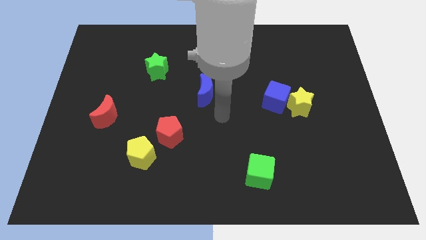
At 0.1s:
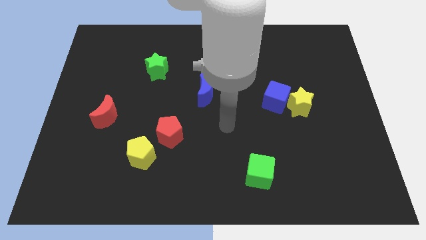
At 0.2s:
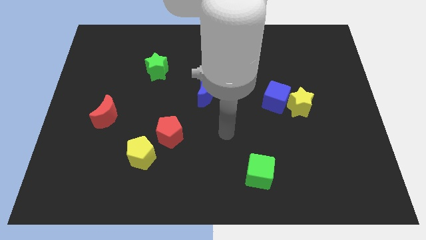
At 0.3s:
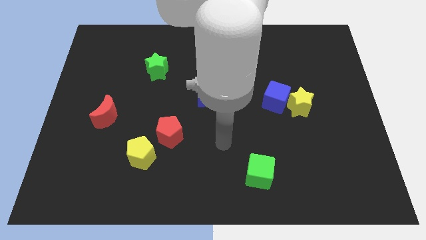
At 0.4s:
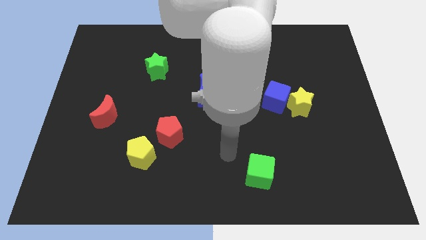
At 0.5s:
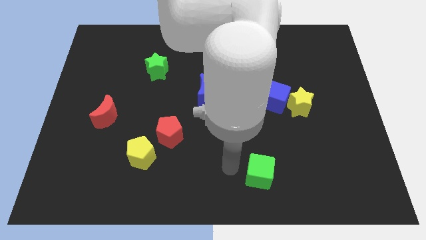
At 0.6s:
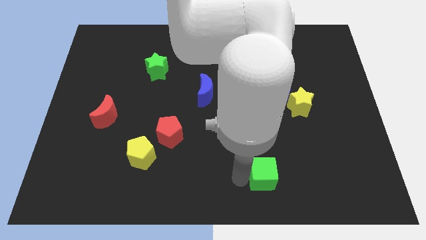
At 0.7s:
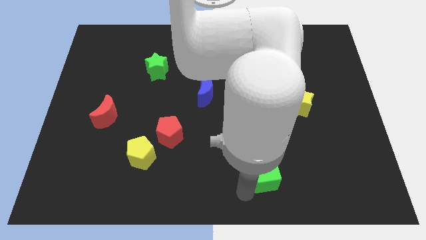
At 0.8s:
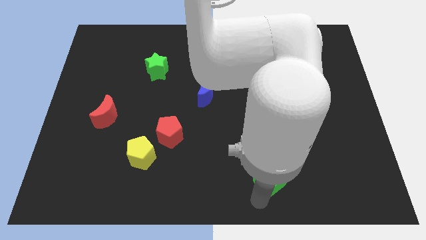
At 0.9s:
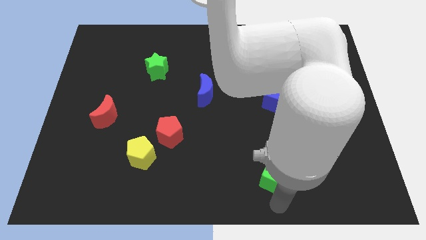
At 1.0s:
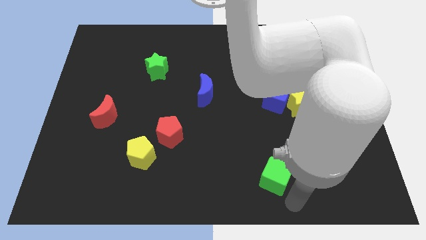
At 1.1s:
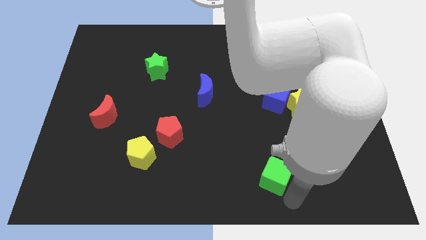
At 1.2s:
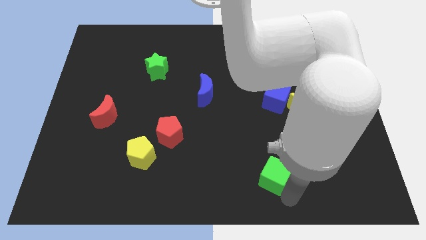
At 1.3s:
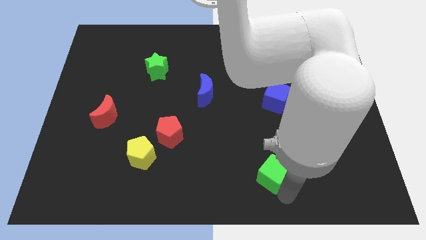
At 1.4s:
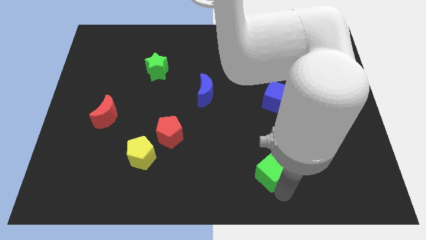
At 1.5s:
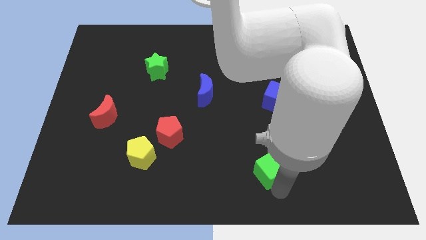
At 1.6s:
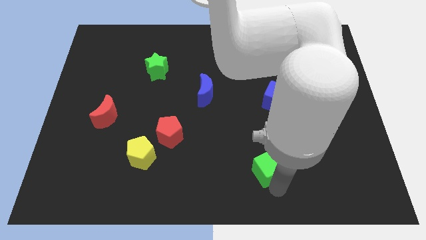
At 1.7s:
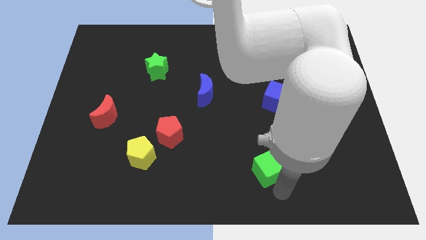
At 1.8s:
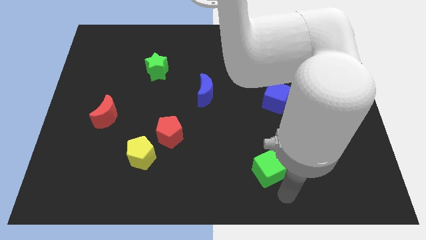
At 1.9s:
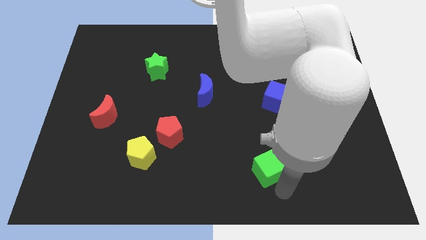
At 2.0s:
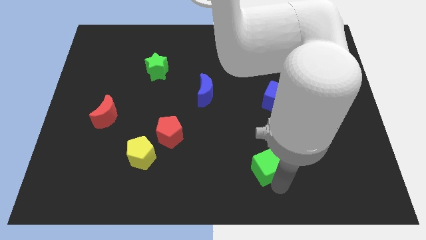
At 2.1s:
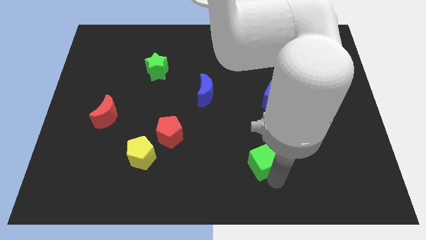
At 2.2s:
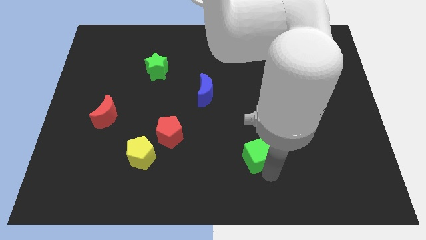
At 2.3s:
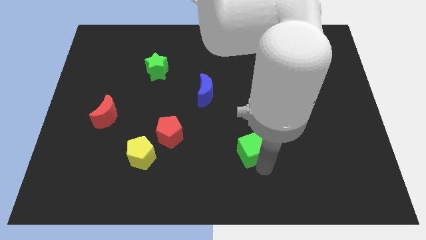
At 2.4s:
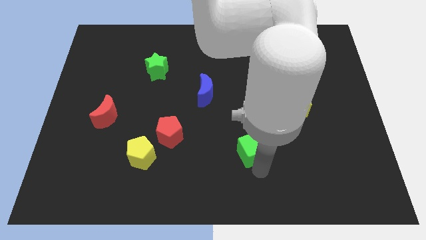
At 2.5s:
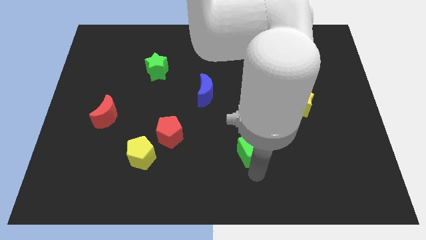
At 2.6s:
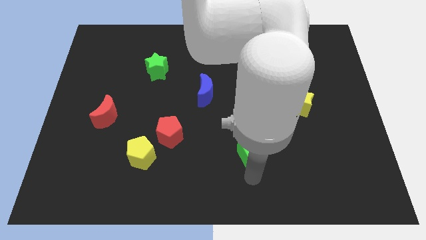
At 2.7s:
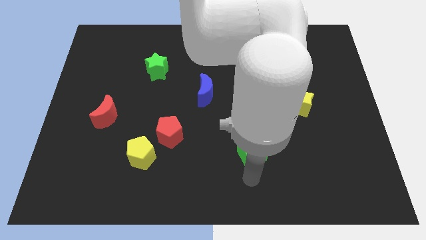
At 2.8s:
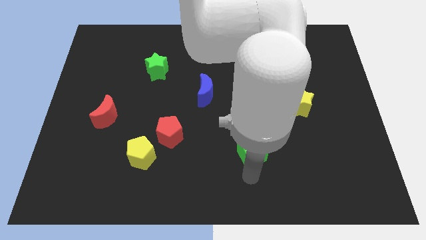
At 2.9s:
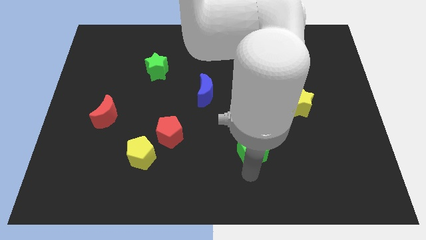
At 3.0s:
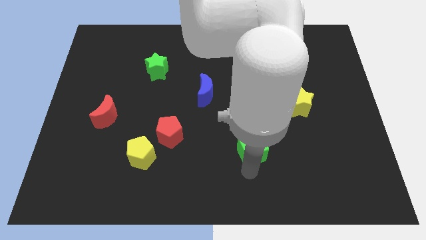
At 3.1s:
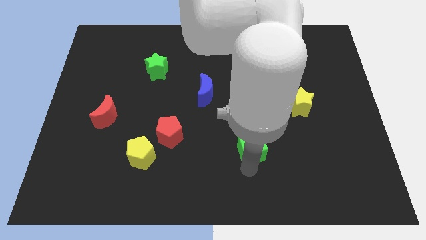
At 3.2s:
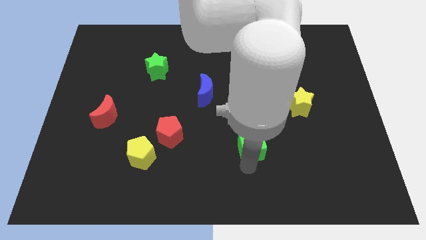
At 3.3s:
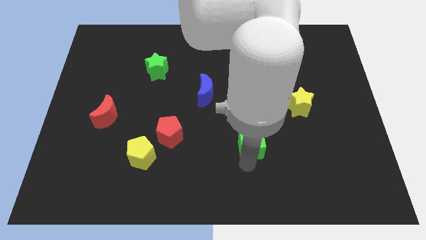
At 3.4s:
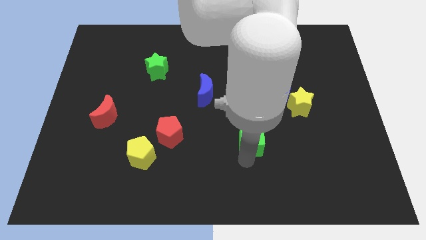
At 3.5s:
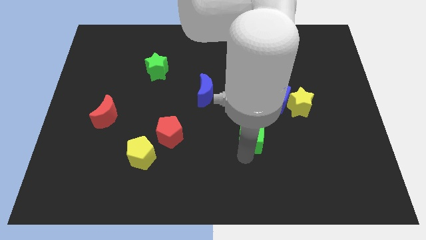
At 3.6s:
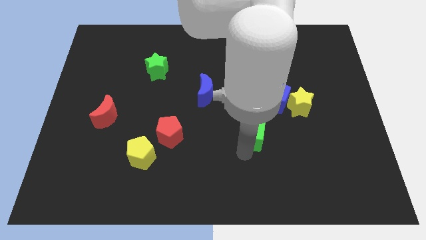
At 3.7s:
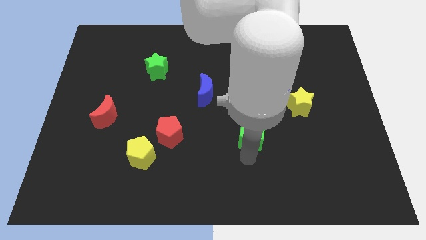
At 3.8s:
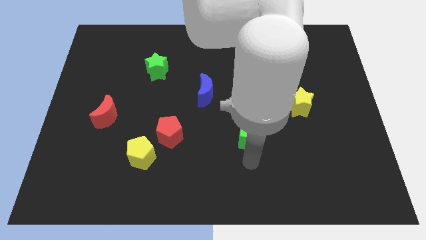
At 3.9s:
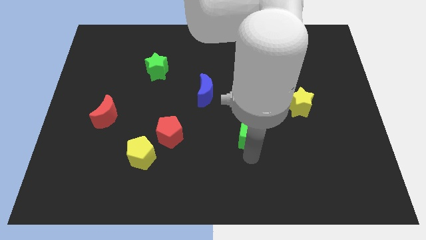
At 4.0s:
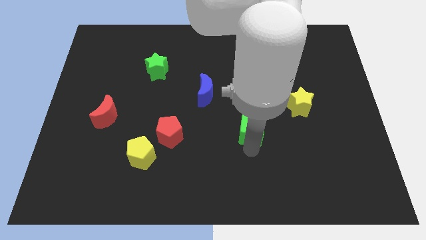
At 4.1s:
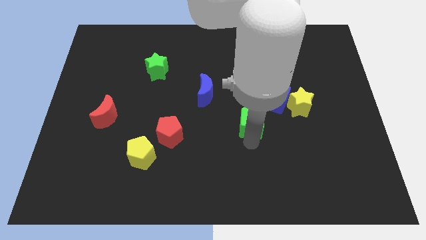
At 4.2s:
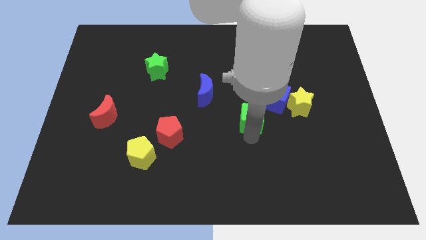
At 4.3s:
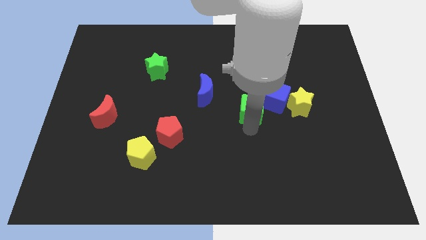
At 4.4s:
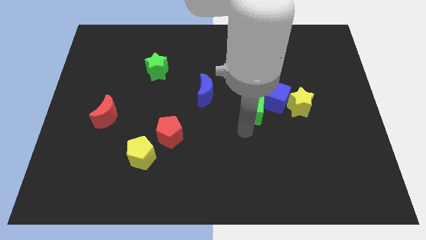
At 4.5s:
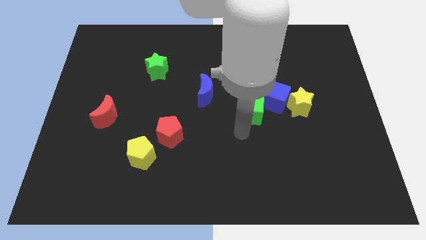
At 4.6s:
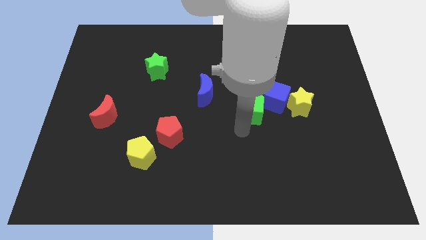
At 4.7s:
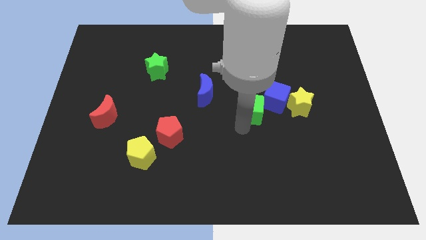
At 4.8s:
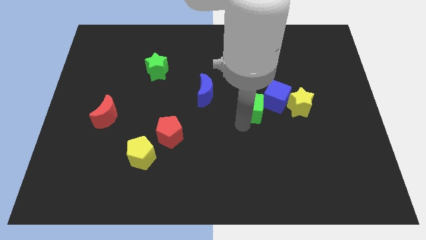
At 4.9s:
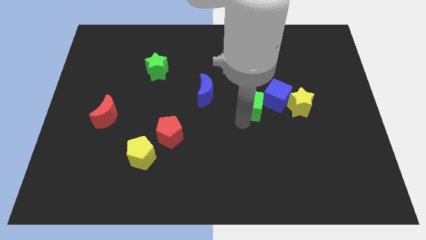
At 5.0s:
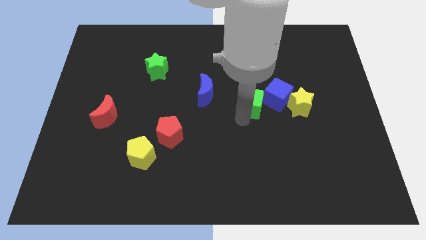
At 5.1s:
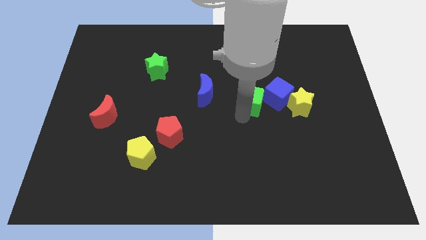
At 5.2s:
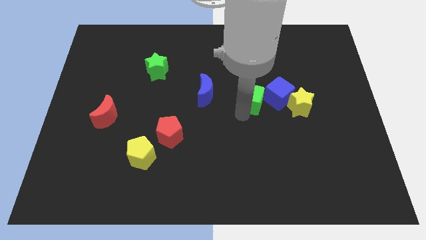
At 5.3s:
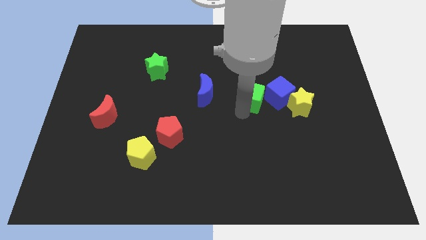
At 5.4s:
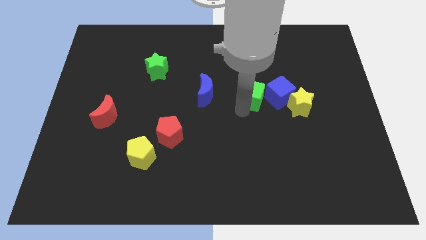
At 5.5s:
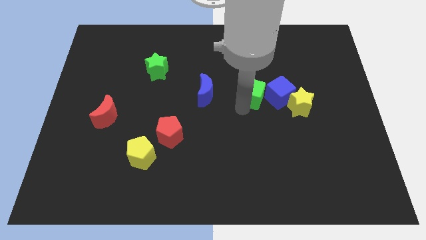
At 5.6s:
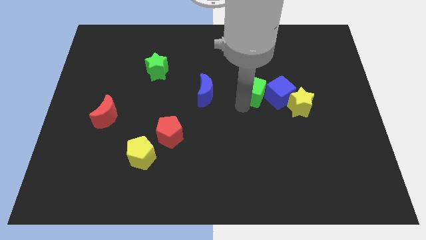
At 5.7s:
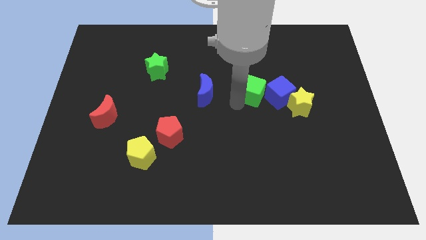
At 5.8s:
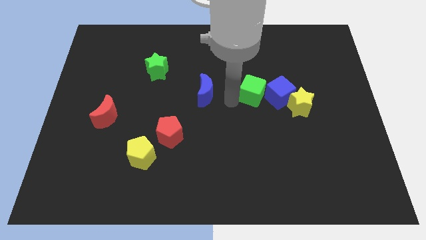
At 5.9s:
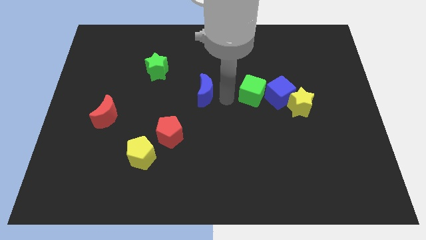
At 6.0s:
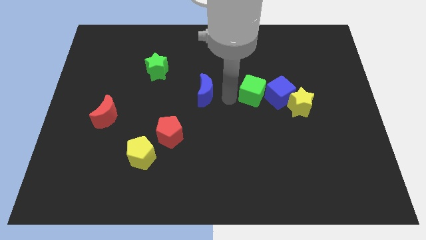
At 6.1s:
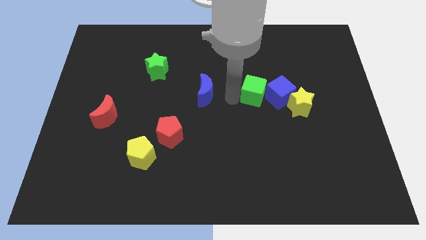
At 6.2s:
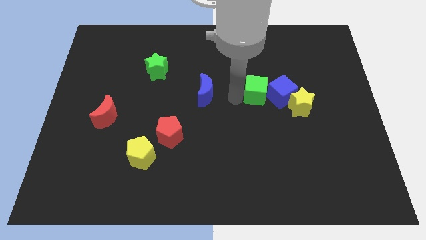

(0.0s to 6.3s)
slide the green cube diagonally up and to the left of the yellow star
